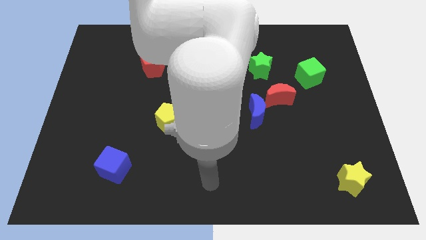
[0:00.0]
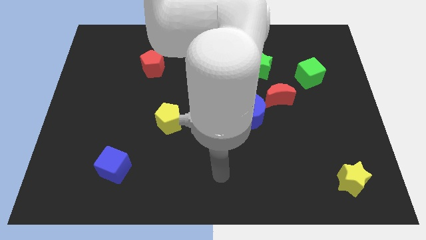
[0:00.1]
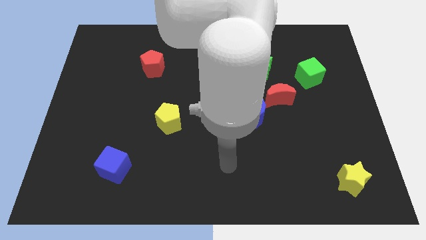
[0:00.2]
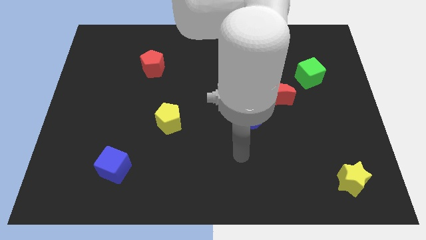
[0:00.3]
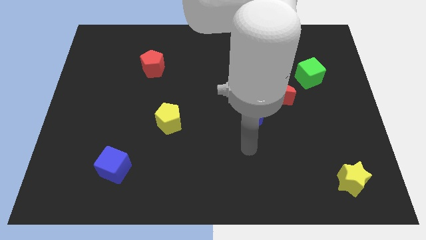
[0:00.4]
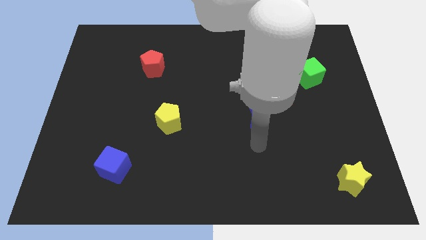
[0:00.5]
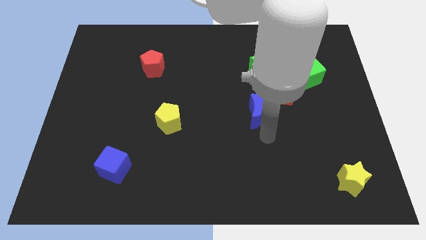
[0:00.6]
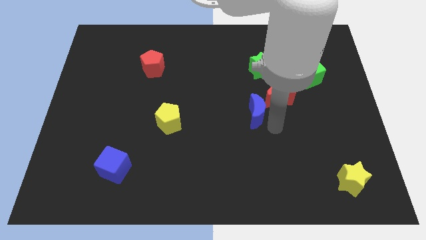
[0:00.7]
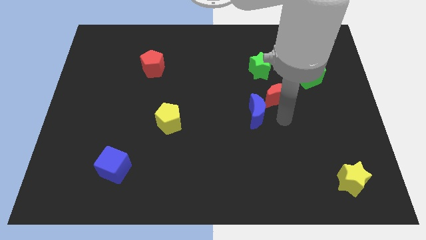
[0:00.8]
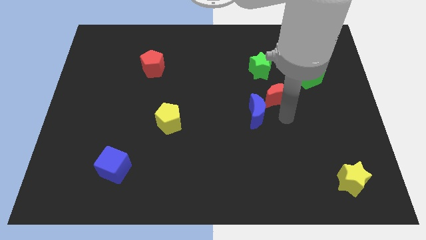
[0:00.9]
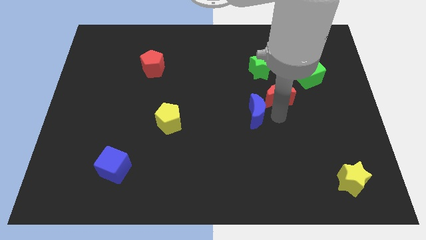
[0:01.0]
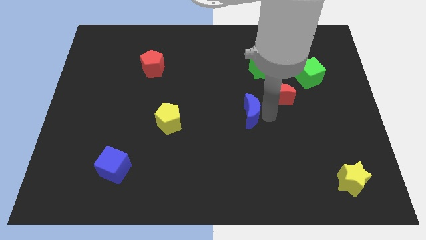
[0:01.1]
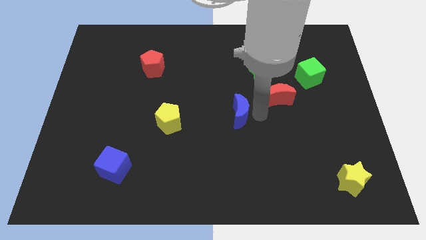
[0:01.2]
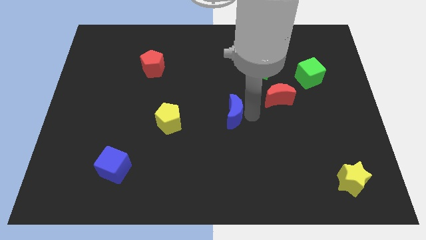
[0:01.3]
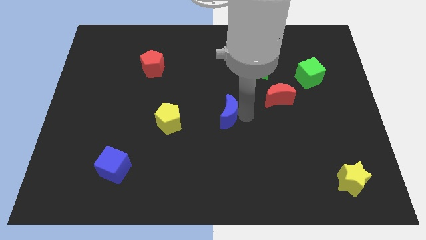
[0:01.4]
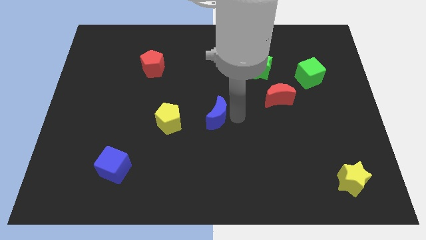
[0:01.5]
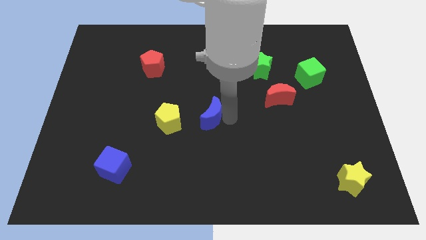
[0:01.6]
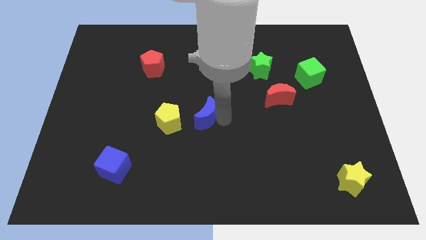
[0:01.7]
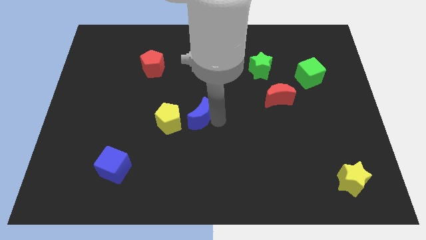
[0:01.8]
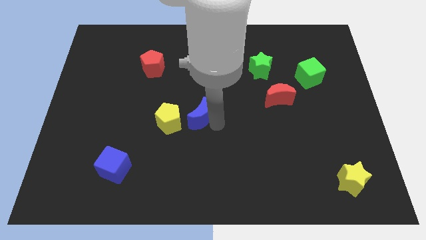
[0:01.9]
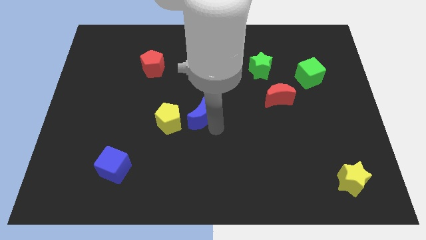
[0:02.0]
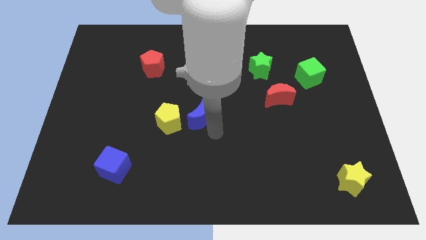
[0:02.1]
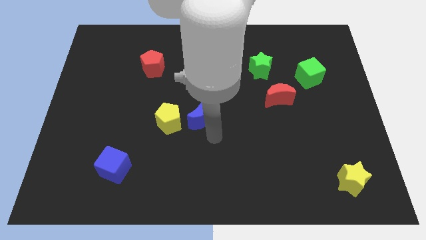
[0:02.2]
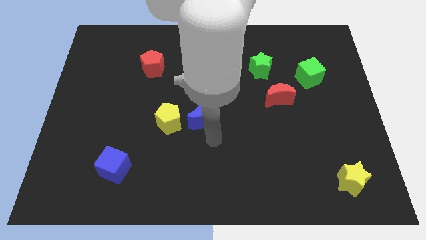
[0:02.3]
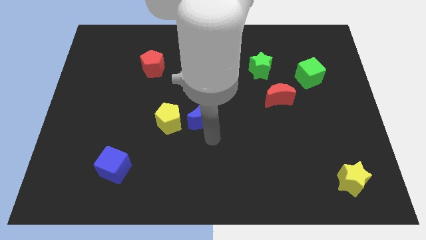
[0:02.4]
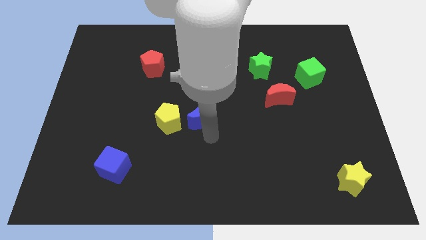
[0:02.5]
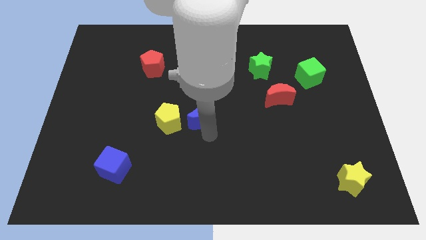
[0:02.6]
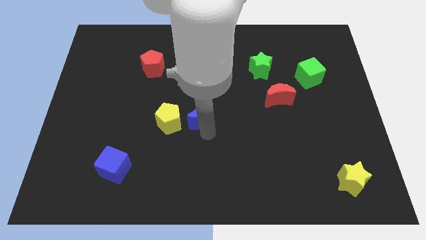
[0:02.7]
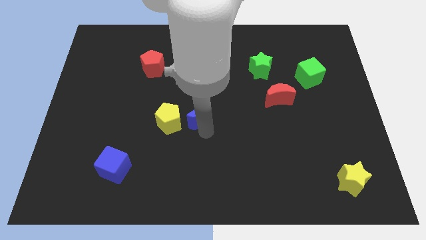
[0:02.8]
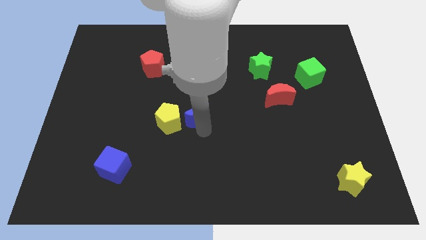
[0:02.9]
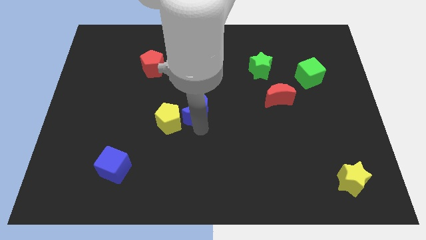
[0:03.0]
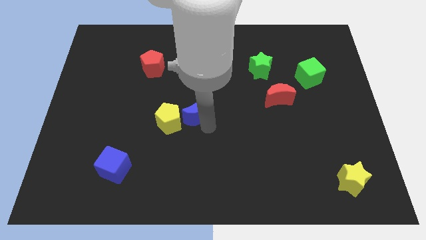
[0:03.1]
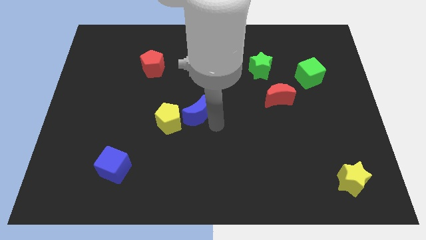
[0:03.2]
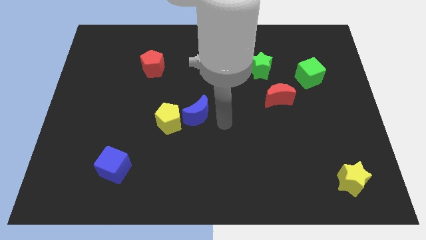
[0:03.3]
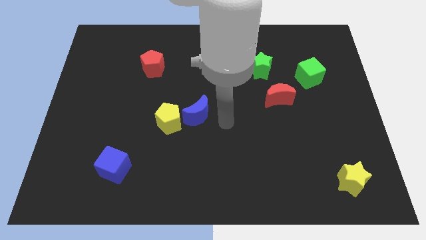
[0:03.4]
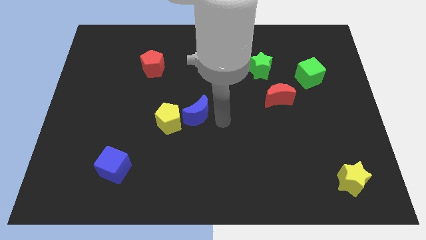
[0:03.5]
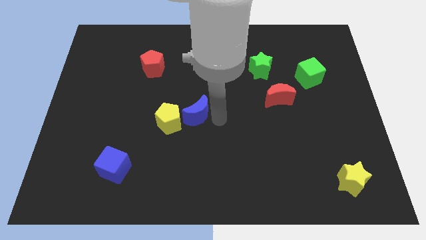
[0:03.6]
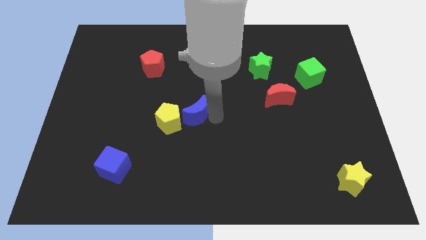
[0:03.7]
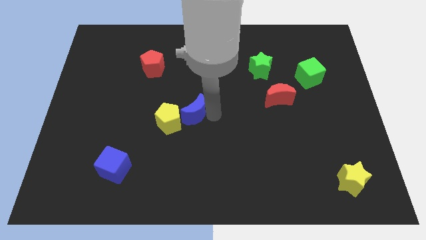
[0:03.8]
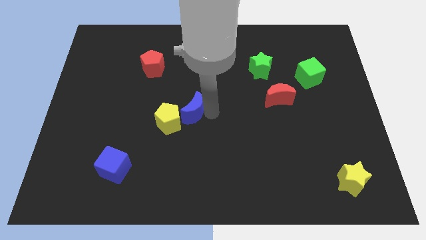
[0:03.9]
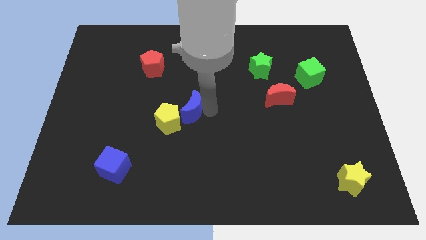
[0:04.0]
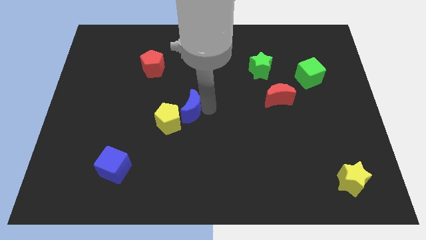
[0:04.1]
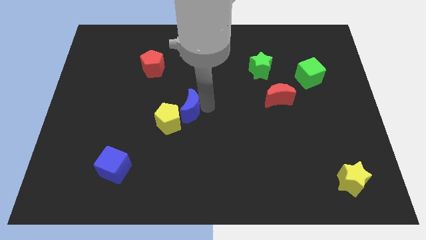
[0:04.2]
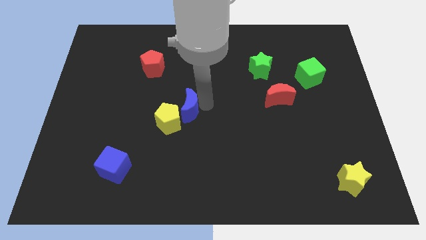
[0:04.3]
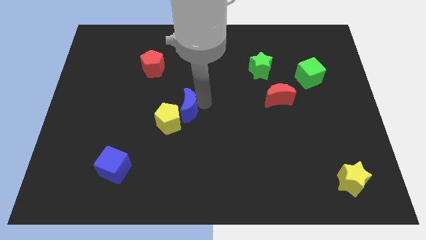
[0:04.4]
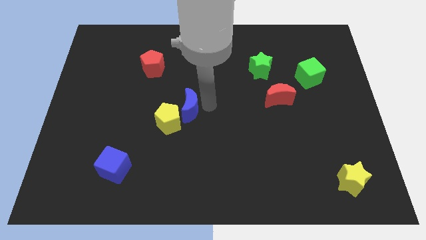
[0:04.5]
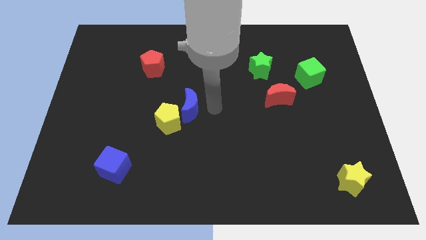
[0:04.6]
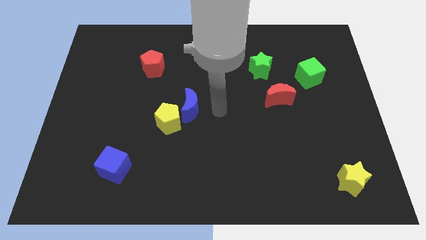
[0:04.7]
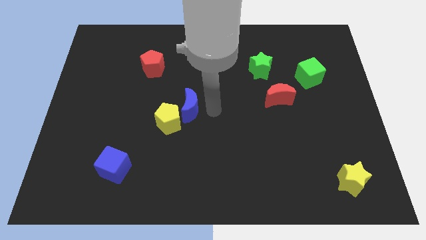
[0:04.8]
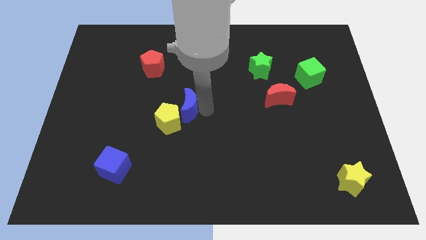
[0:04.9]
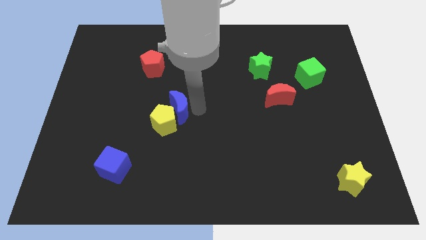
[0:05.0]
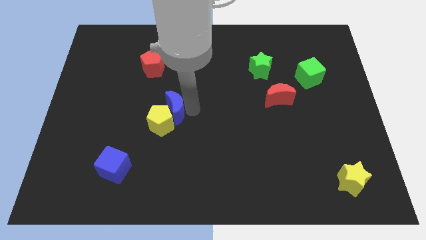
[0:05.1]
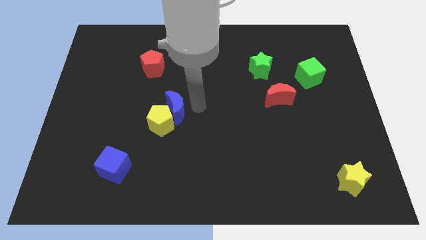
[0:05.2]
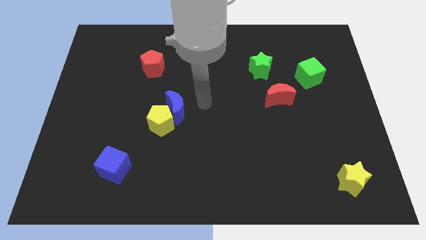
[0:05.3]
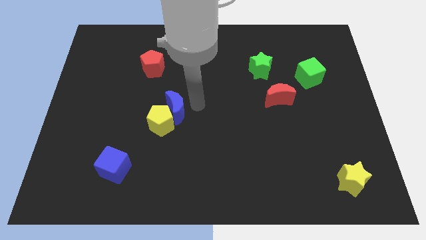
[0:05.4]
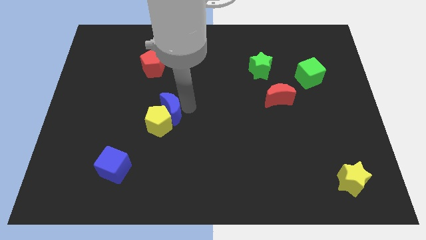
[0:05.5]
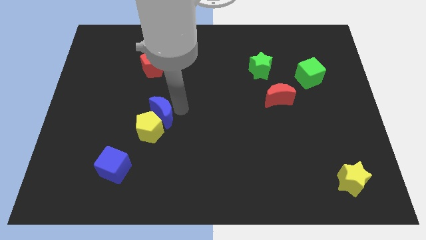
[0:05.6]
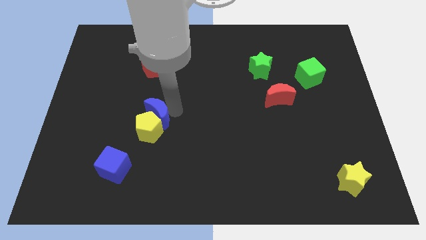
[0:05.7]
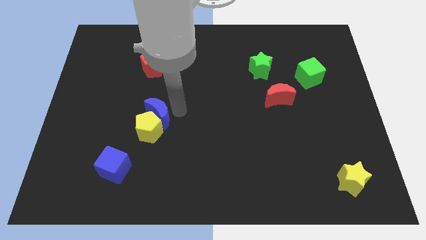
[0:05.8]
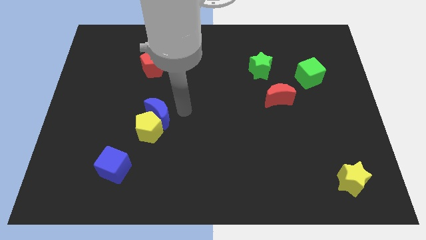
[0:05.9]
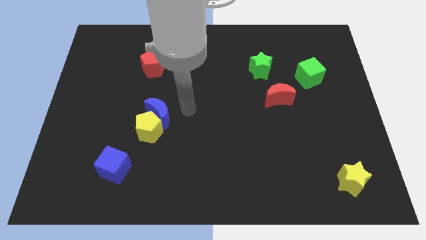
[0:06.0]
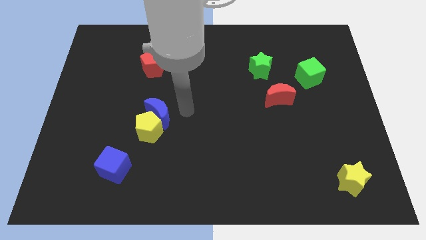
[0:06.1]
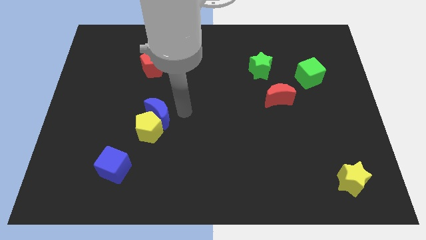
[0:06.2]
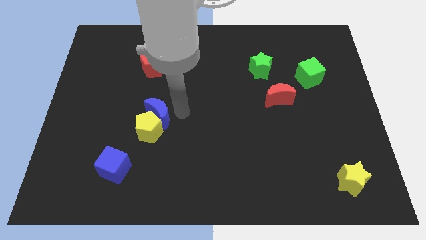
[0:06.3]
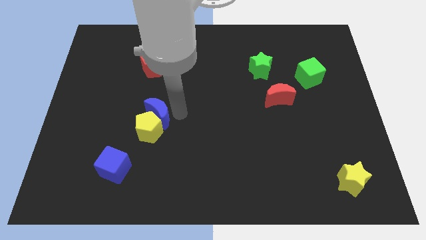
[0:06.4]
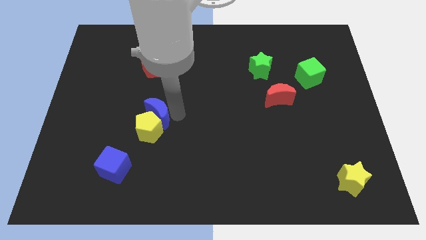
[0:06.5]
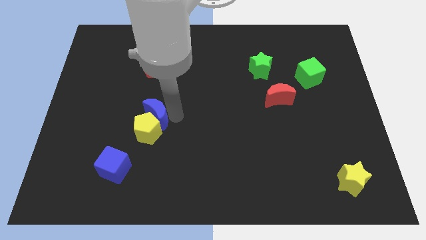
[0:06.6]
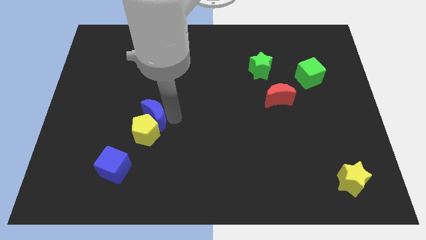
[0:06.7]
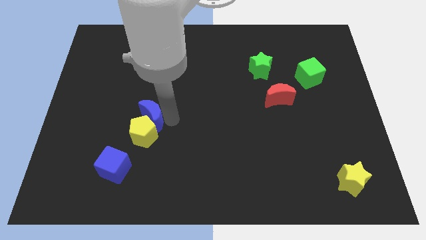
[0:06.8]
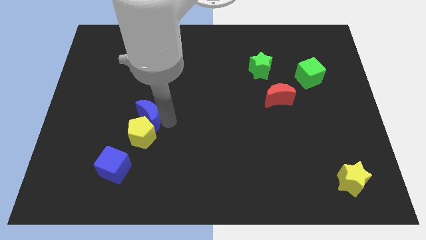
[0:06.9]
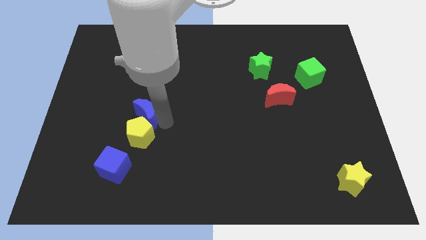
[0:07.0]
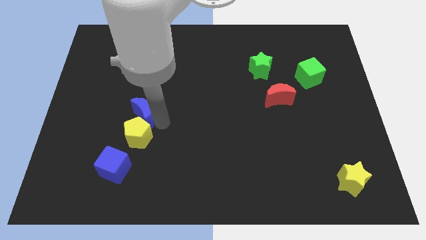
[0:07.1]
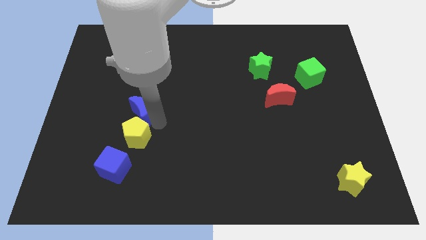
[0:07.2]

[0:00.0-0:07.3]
put the blue moon to the top side of the blue cube
